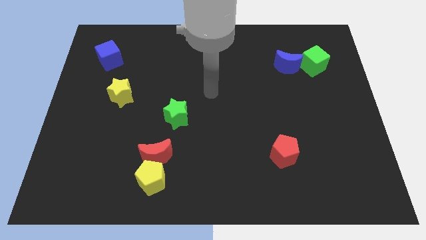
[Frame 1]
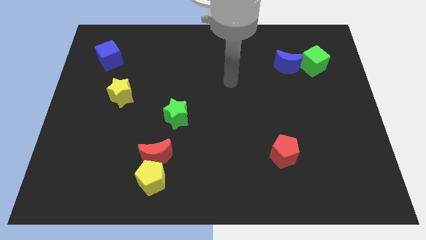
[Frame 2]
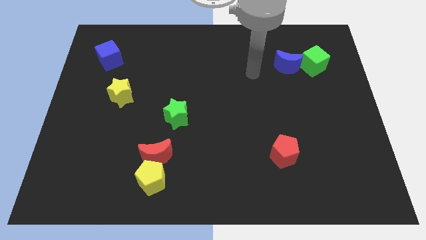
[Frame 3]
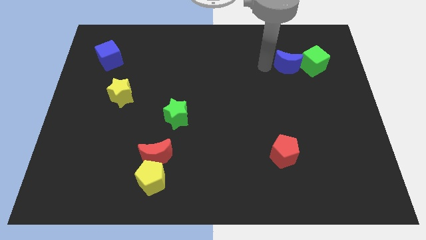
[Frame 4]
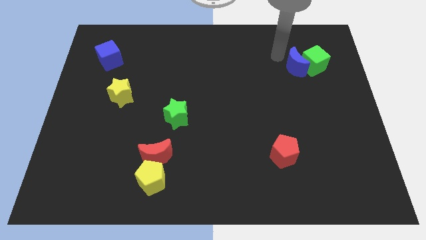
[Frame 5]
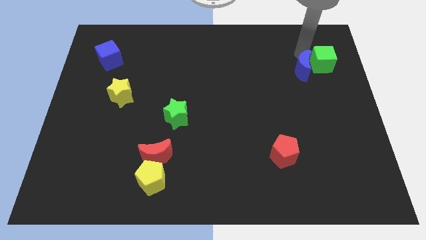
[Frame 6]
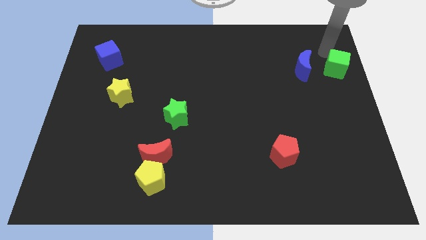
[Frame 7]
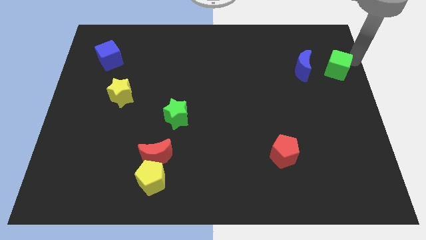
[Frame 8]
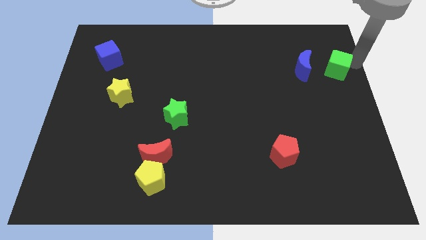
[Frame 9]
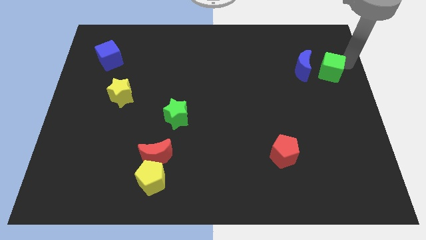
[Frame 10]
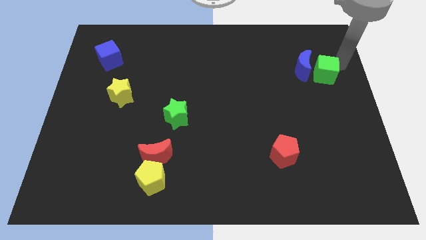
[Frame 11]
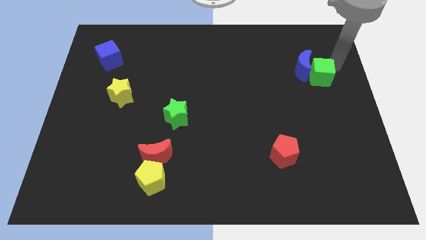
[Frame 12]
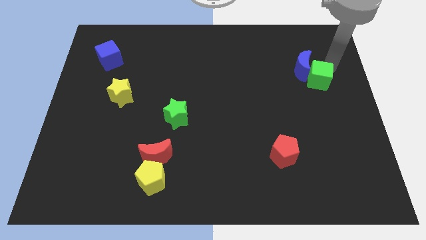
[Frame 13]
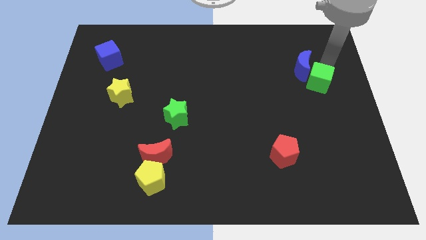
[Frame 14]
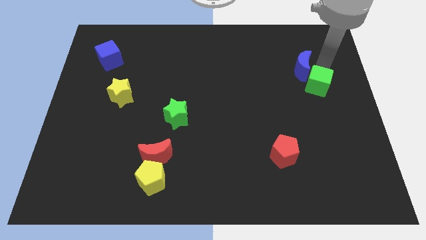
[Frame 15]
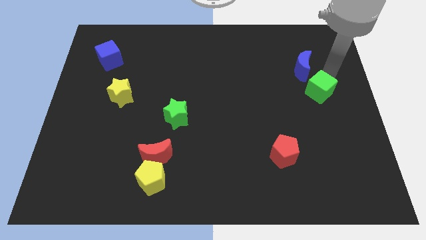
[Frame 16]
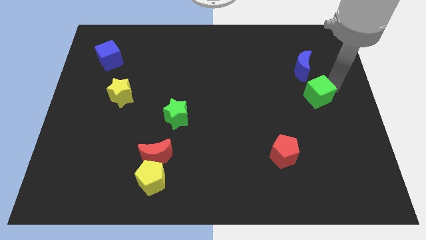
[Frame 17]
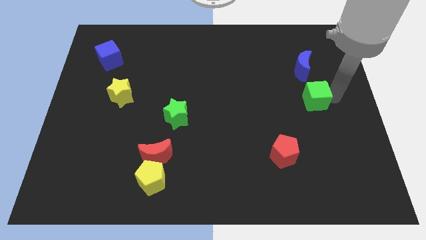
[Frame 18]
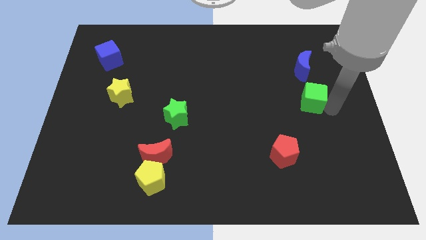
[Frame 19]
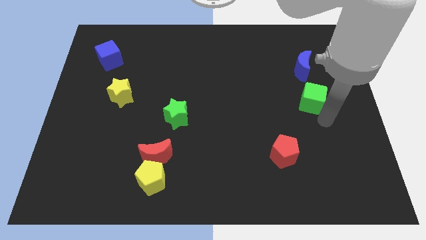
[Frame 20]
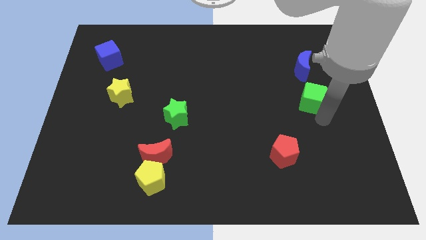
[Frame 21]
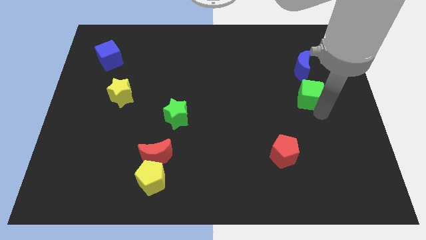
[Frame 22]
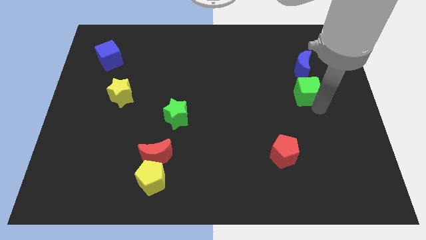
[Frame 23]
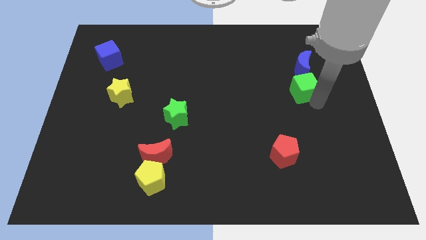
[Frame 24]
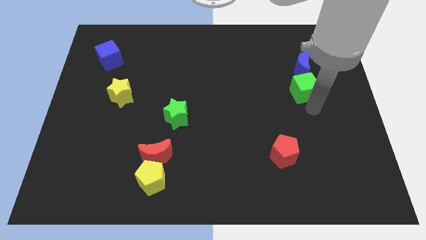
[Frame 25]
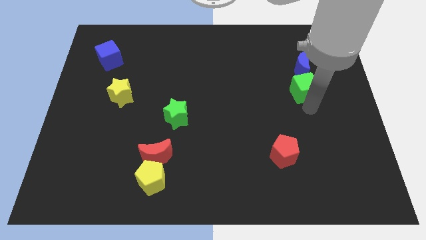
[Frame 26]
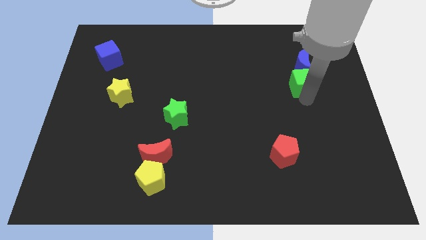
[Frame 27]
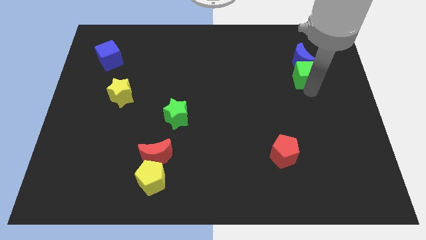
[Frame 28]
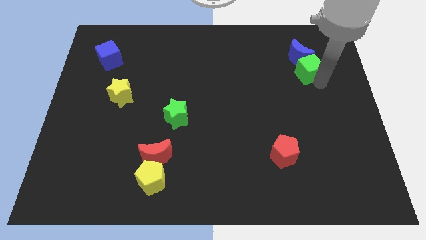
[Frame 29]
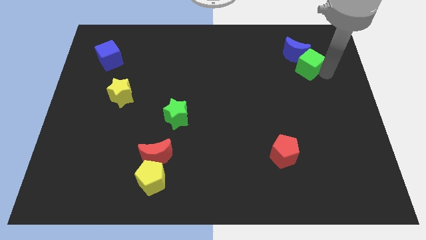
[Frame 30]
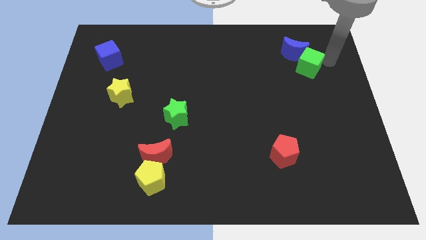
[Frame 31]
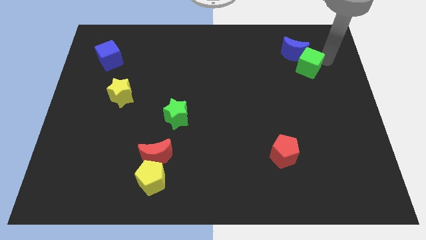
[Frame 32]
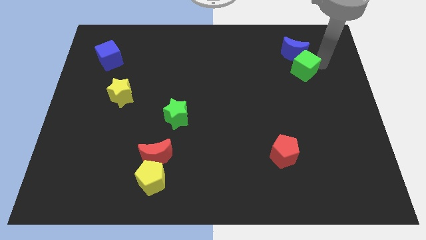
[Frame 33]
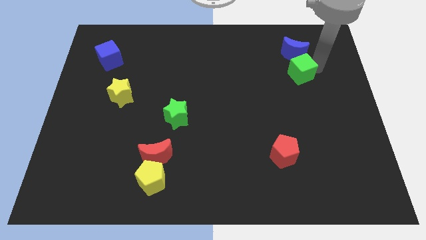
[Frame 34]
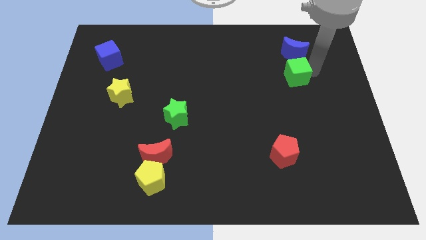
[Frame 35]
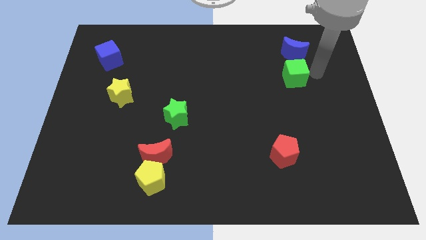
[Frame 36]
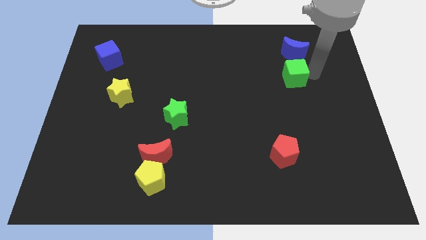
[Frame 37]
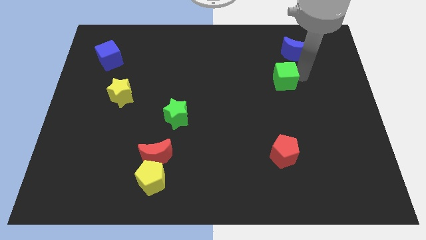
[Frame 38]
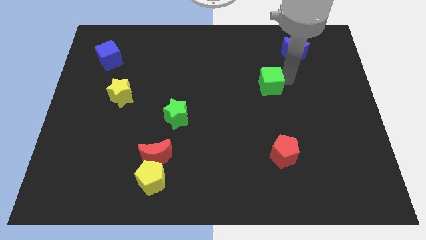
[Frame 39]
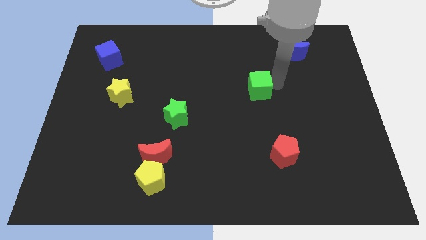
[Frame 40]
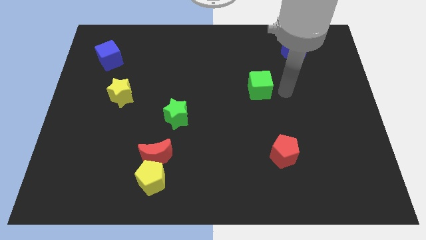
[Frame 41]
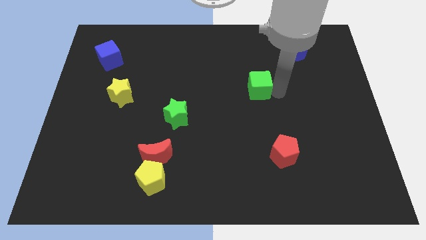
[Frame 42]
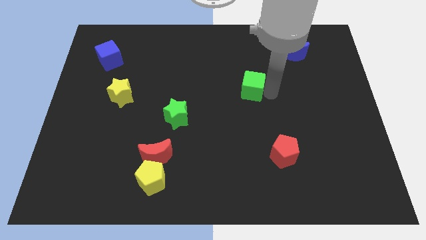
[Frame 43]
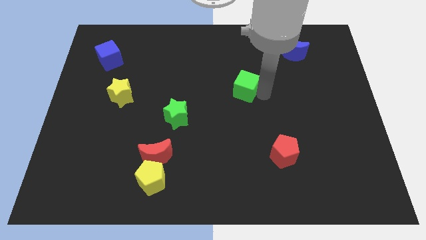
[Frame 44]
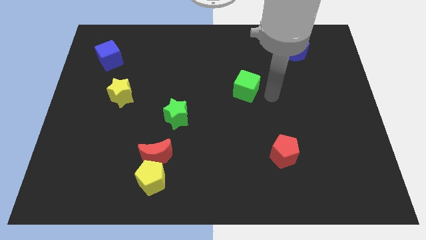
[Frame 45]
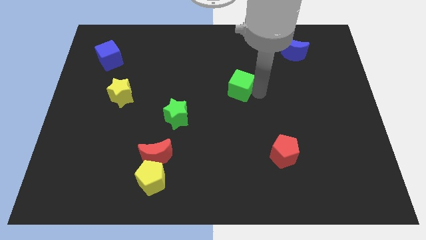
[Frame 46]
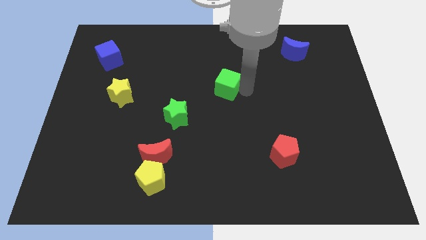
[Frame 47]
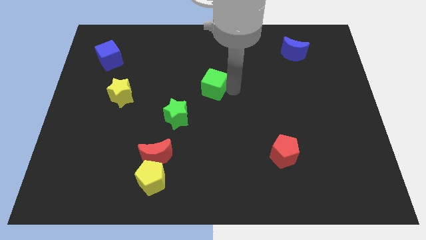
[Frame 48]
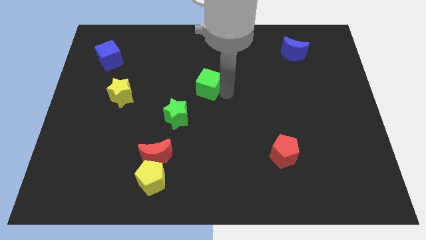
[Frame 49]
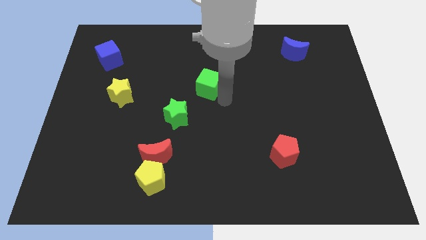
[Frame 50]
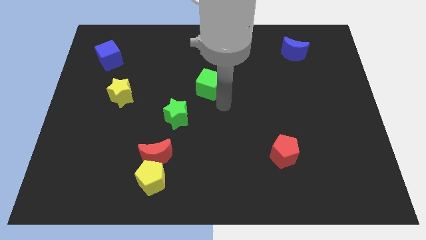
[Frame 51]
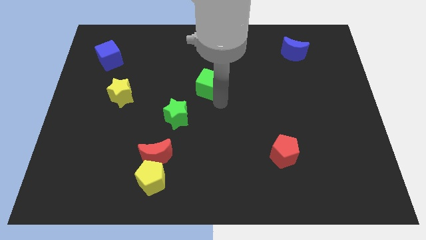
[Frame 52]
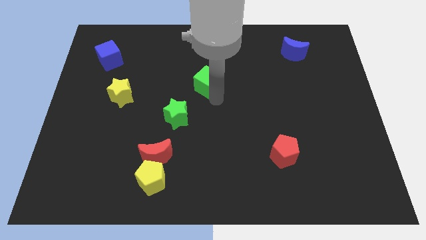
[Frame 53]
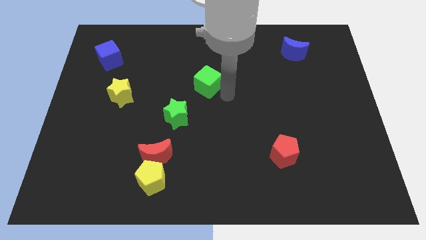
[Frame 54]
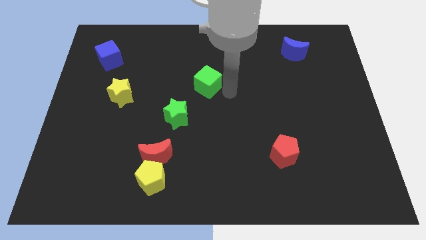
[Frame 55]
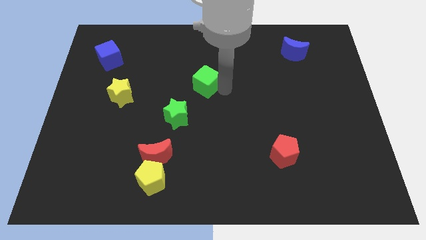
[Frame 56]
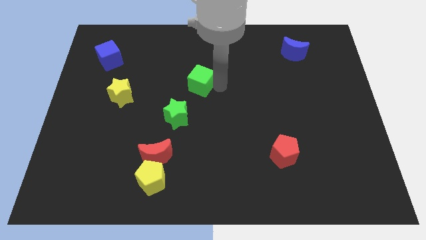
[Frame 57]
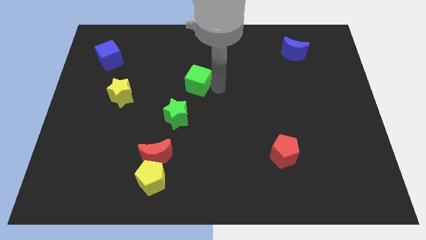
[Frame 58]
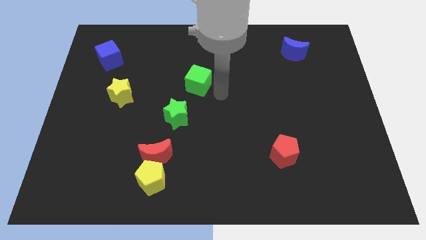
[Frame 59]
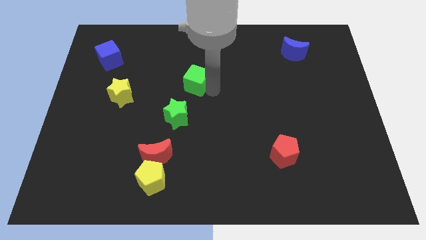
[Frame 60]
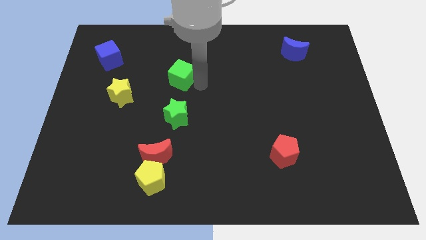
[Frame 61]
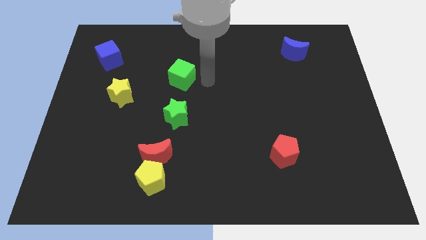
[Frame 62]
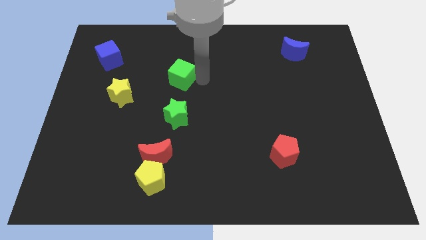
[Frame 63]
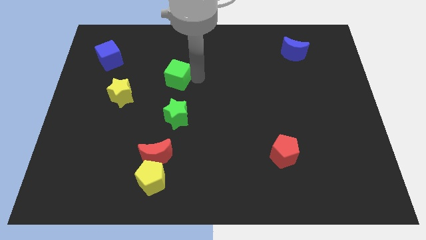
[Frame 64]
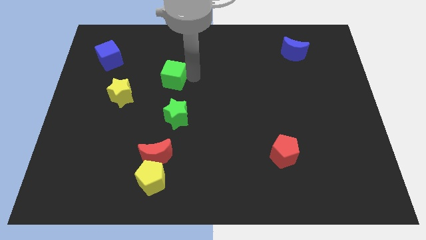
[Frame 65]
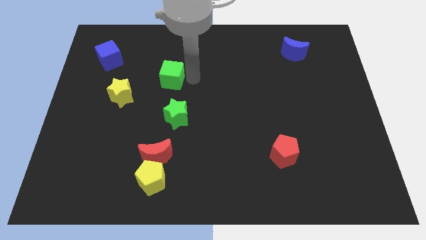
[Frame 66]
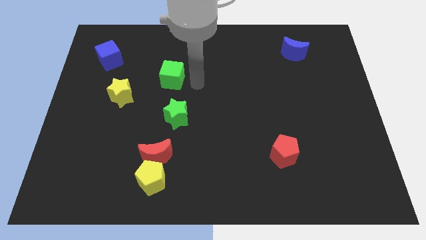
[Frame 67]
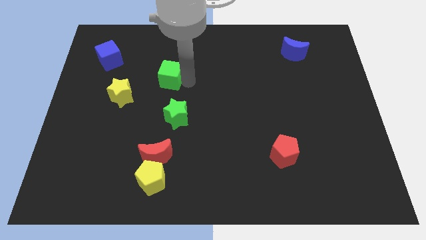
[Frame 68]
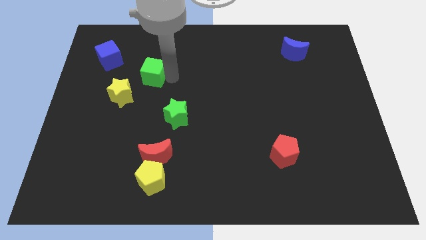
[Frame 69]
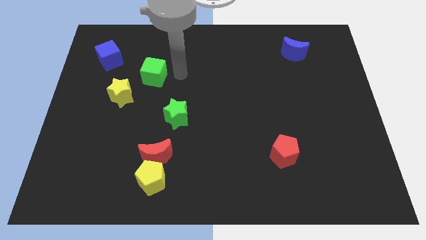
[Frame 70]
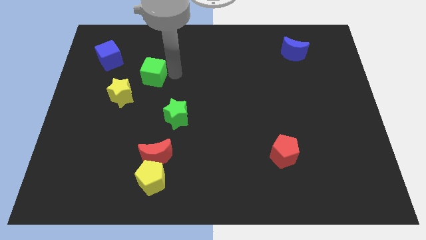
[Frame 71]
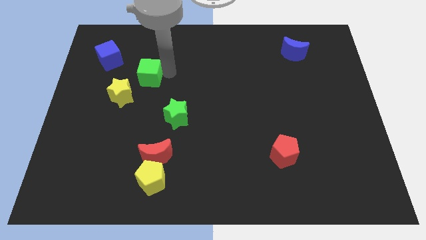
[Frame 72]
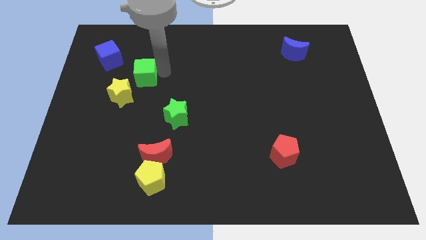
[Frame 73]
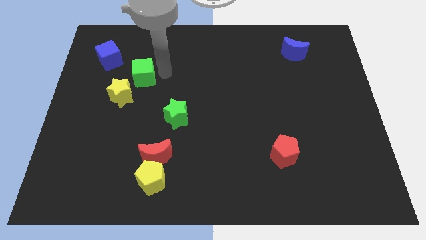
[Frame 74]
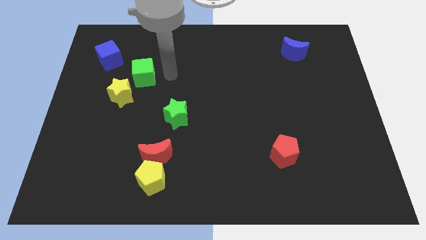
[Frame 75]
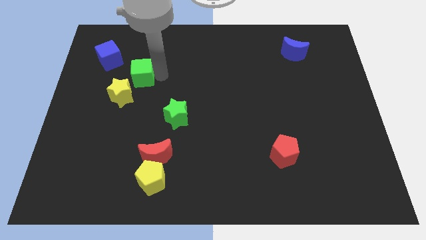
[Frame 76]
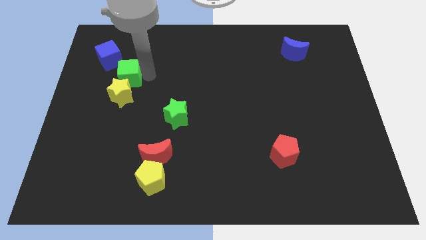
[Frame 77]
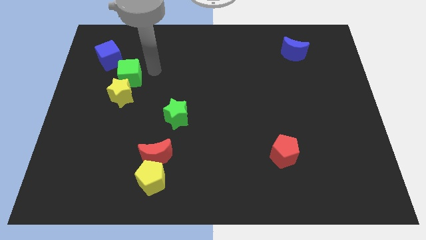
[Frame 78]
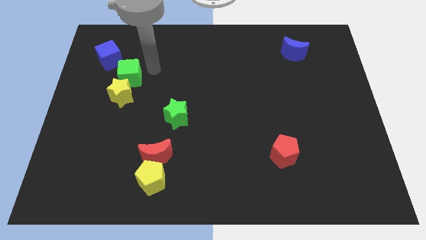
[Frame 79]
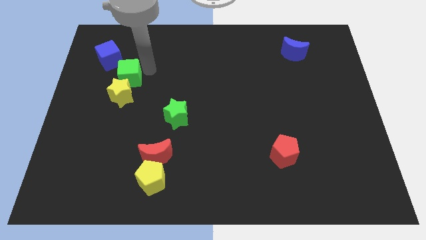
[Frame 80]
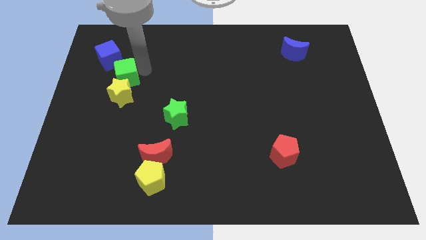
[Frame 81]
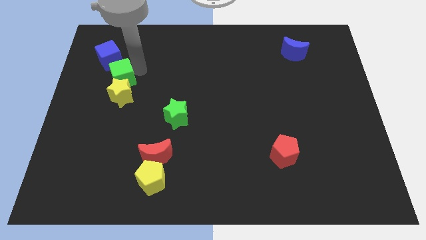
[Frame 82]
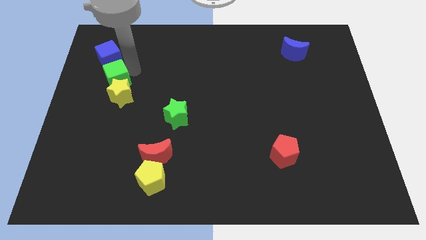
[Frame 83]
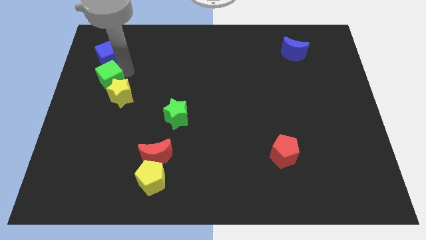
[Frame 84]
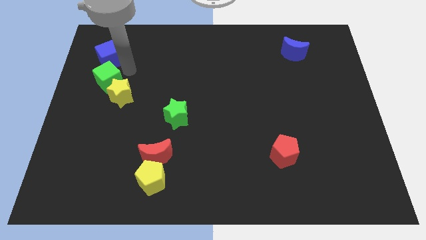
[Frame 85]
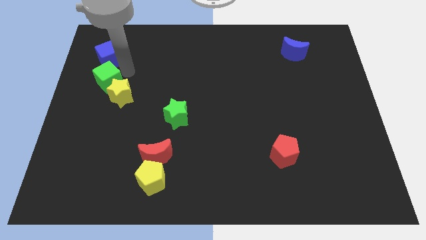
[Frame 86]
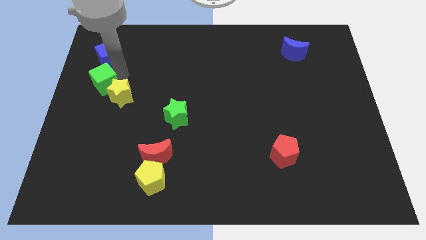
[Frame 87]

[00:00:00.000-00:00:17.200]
push the green cube to the center left
